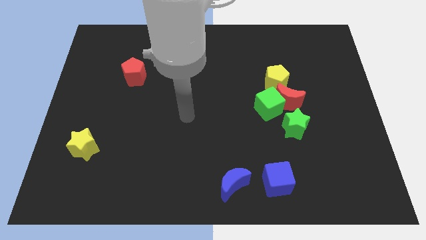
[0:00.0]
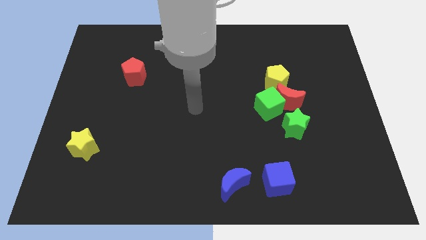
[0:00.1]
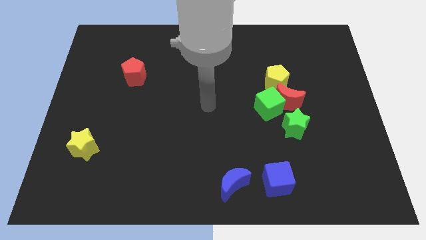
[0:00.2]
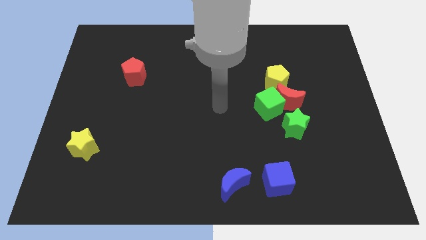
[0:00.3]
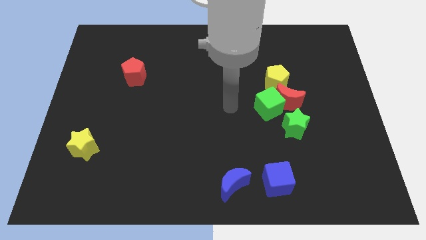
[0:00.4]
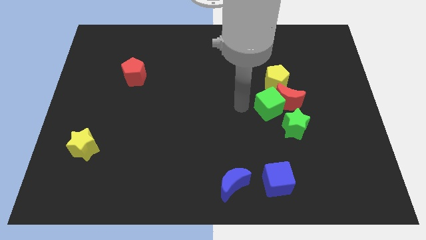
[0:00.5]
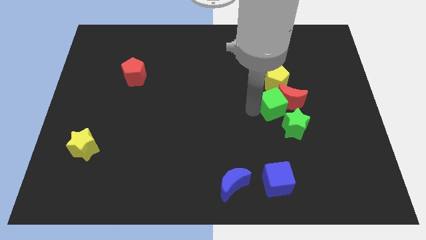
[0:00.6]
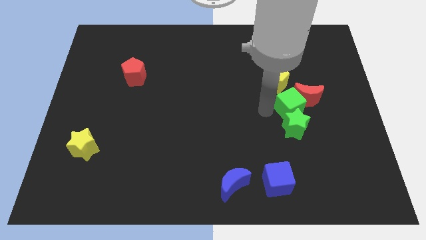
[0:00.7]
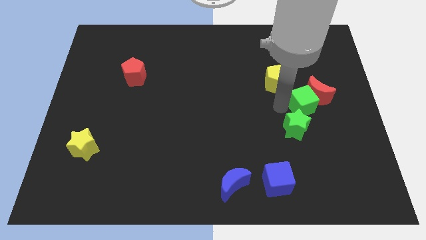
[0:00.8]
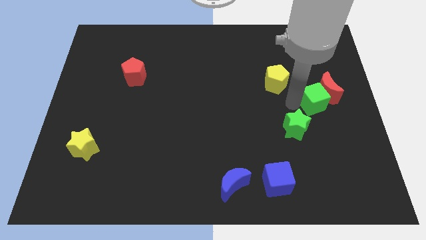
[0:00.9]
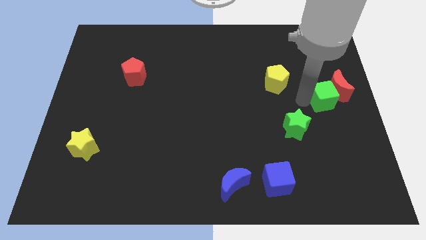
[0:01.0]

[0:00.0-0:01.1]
move the red moon away from the green cube, yellow pentagon, and green star

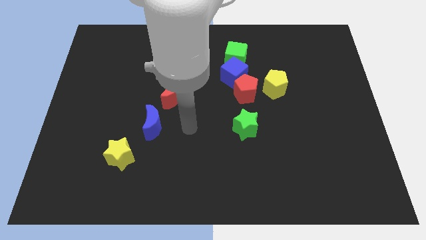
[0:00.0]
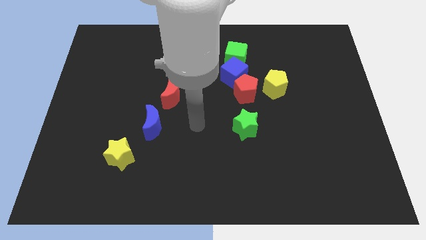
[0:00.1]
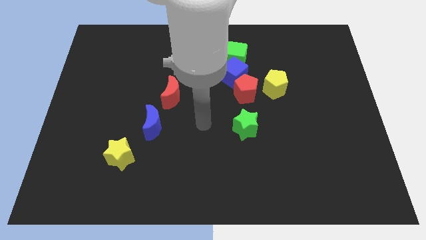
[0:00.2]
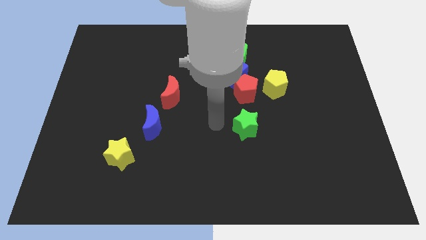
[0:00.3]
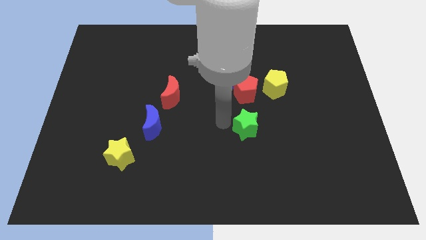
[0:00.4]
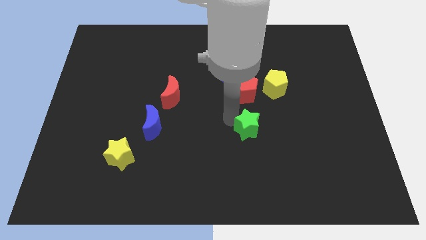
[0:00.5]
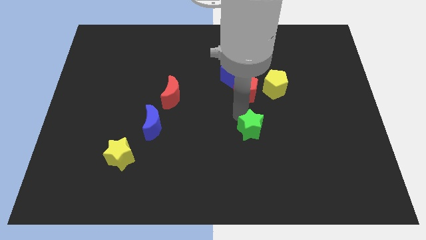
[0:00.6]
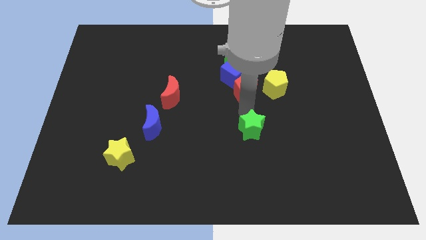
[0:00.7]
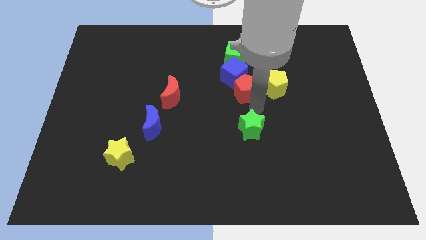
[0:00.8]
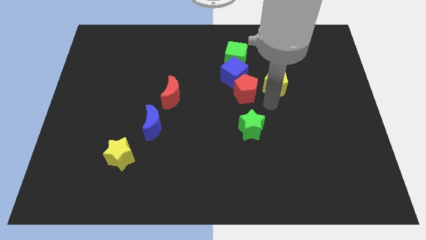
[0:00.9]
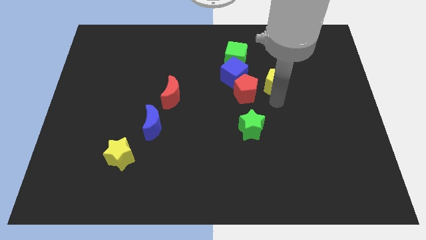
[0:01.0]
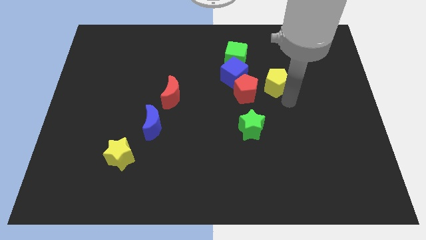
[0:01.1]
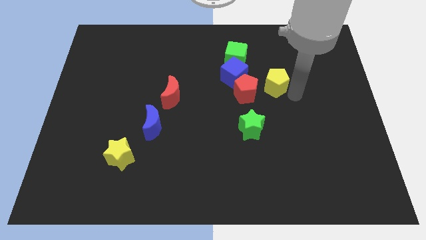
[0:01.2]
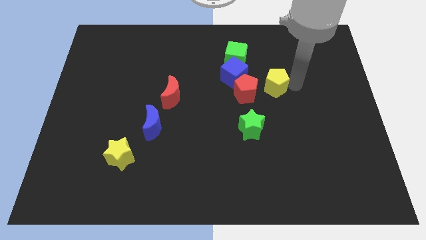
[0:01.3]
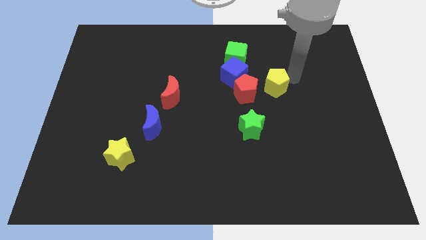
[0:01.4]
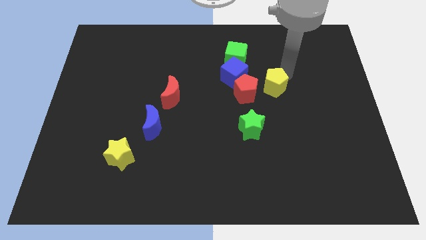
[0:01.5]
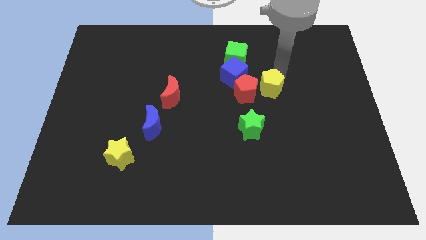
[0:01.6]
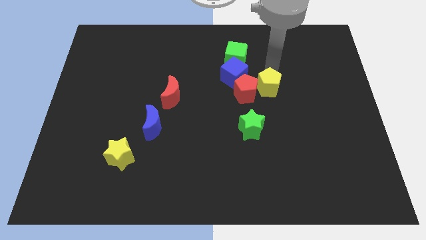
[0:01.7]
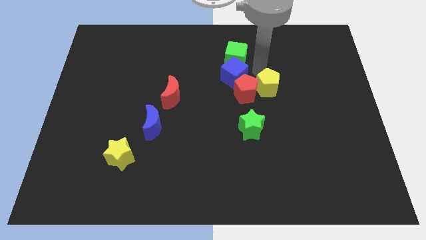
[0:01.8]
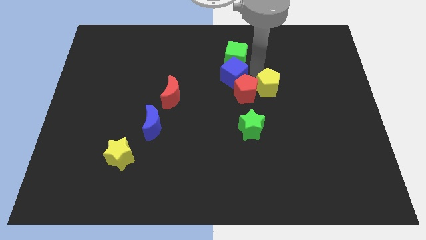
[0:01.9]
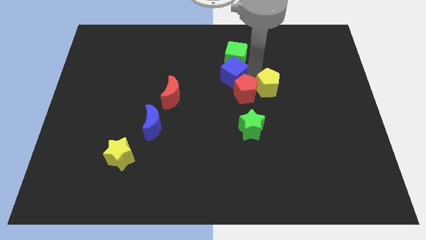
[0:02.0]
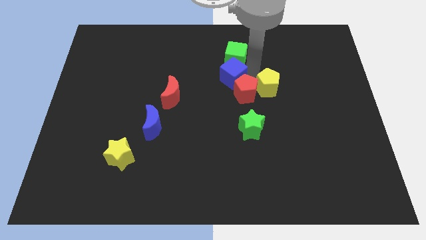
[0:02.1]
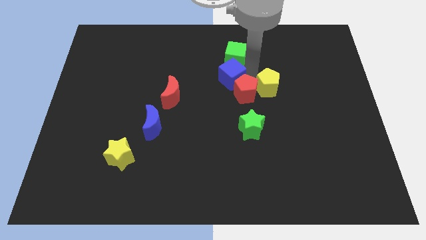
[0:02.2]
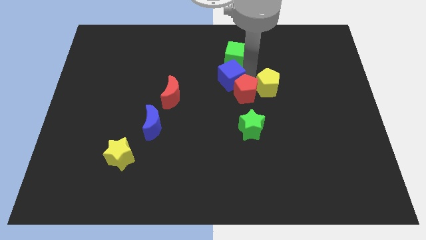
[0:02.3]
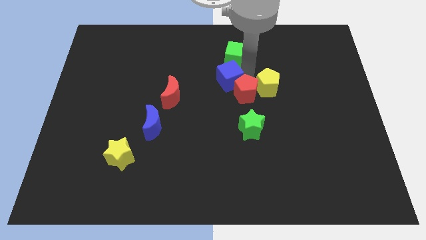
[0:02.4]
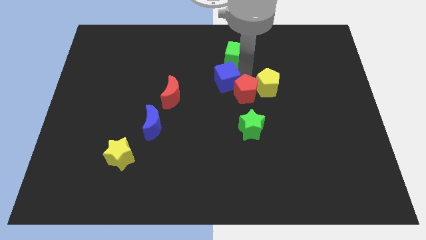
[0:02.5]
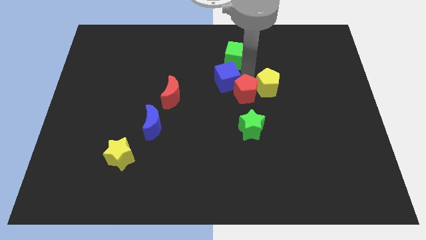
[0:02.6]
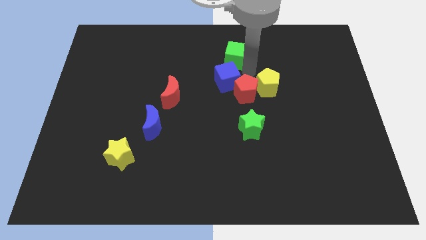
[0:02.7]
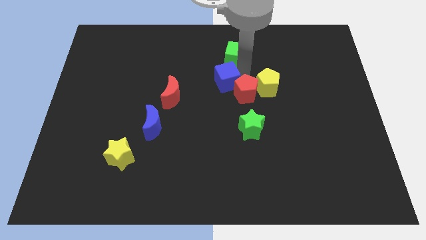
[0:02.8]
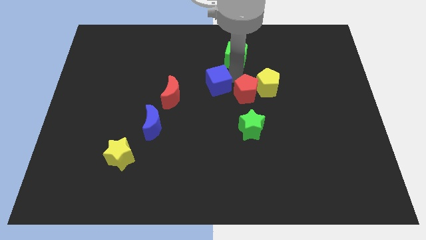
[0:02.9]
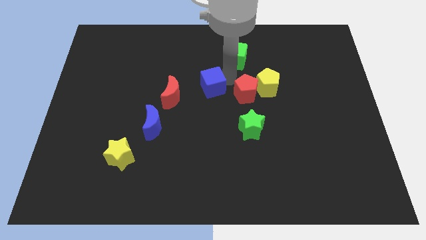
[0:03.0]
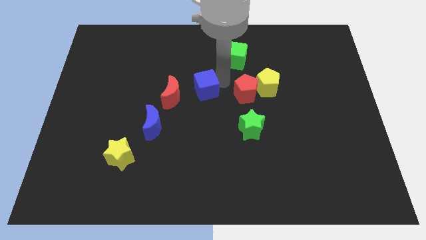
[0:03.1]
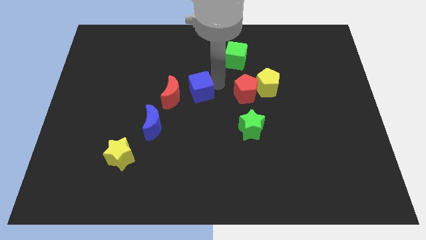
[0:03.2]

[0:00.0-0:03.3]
move the blue cube away from the red pentagon and green cube

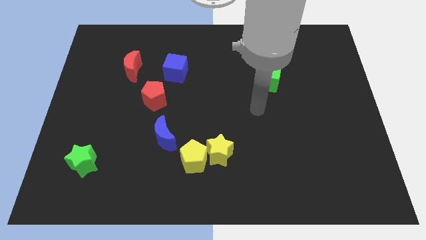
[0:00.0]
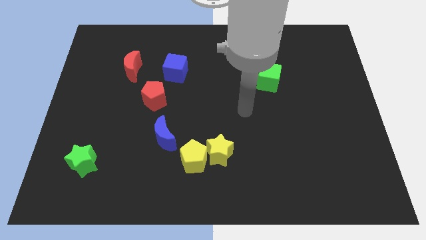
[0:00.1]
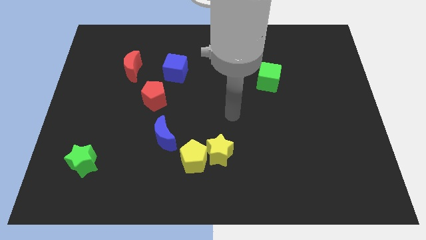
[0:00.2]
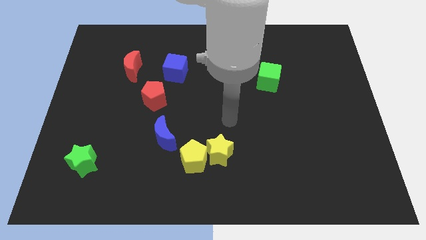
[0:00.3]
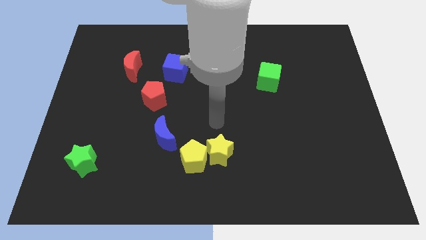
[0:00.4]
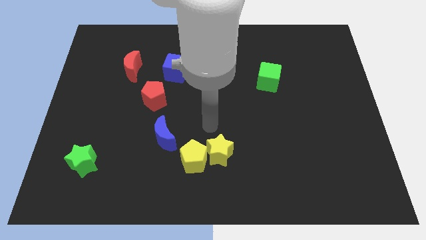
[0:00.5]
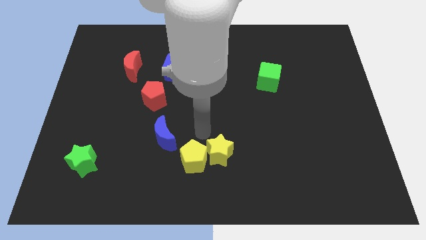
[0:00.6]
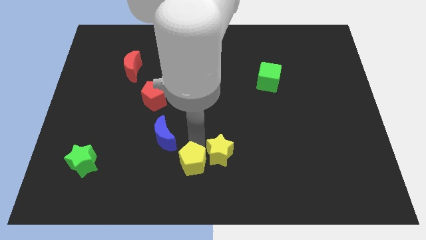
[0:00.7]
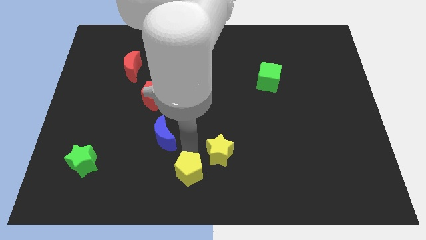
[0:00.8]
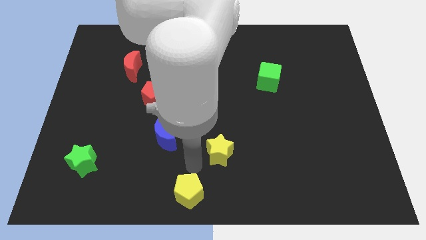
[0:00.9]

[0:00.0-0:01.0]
move the yellow star away from the yellow pentagon

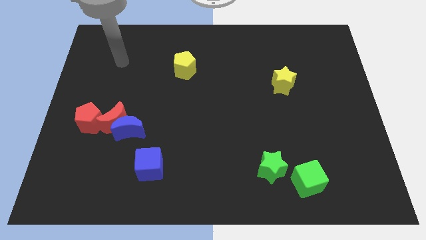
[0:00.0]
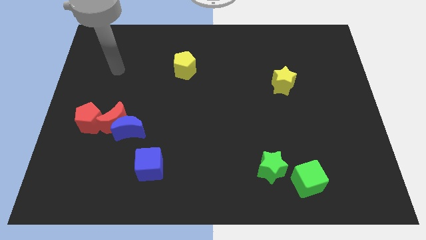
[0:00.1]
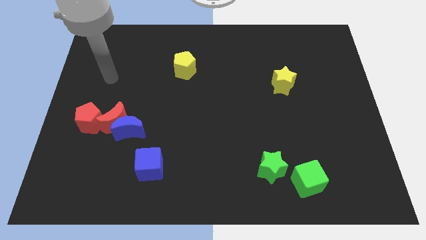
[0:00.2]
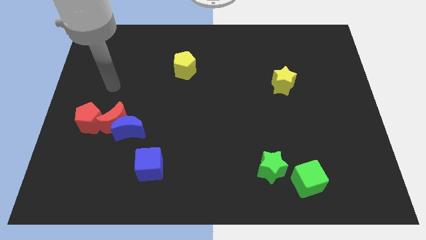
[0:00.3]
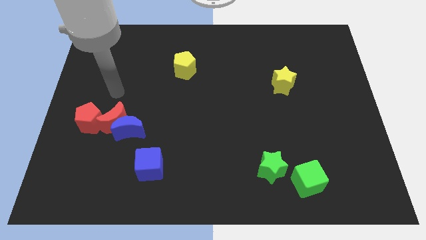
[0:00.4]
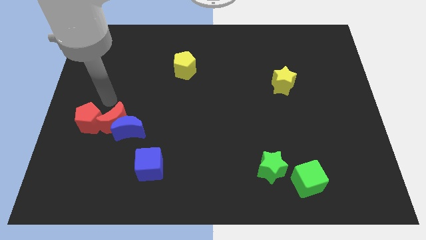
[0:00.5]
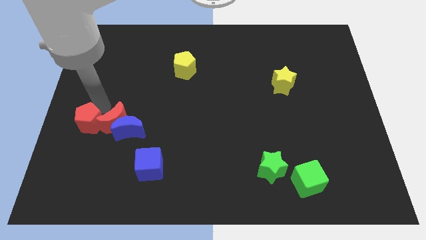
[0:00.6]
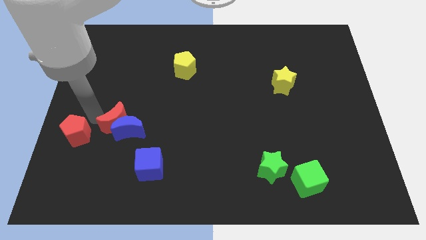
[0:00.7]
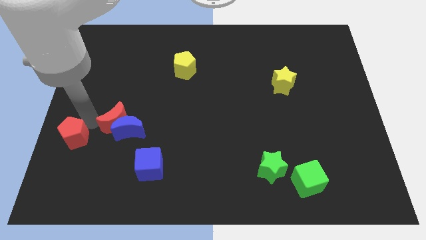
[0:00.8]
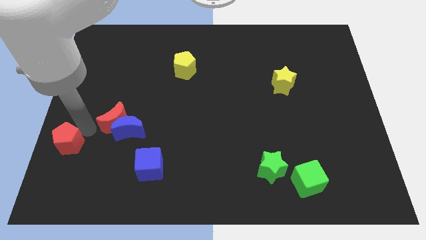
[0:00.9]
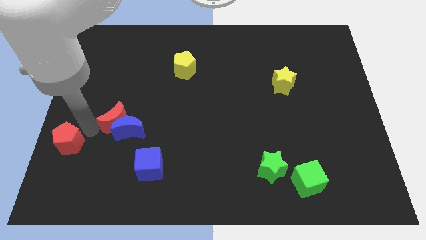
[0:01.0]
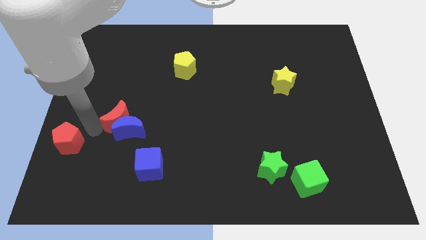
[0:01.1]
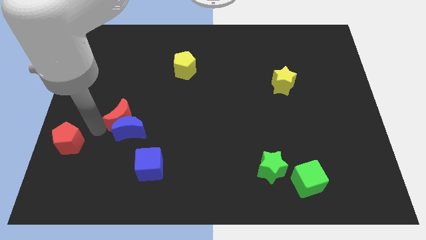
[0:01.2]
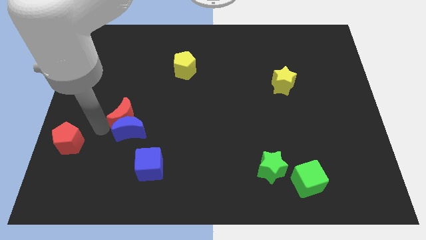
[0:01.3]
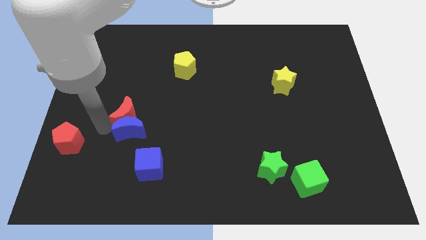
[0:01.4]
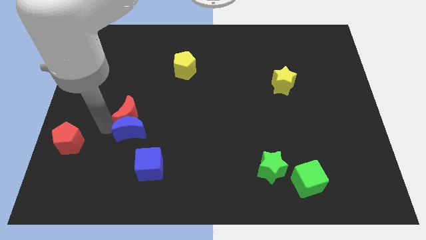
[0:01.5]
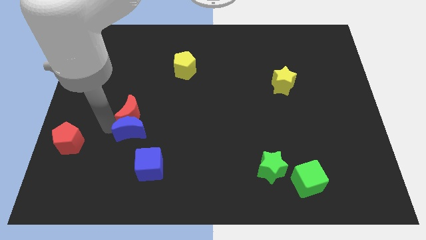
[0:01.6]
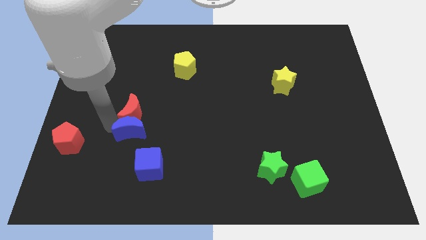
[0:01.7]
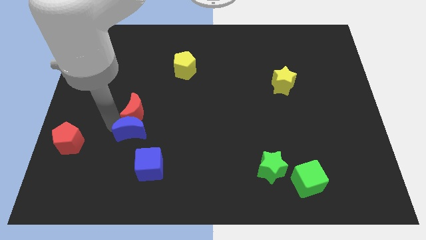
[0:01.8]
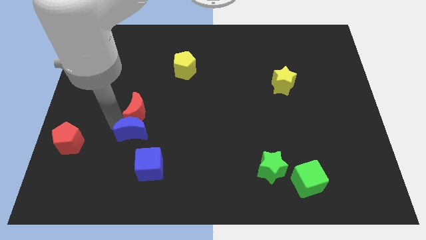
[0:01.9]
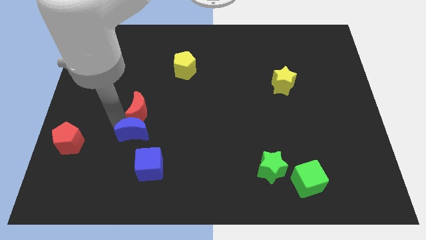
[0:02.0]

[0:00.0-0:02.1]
separate the red moon from the blue moon and red pentagon

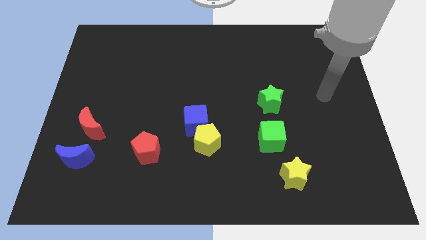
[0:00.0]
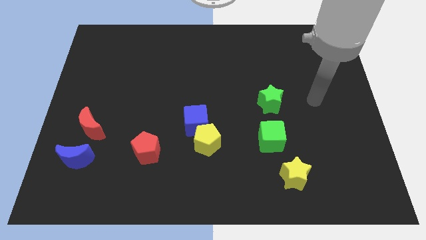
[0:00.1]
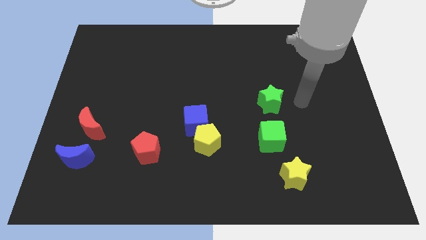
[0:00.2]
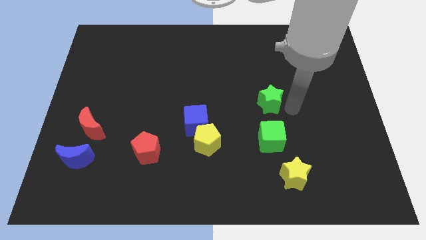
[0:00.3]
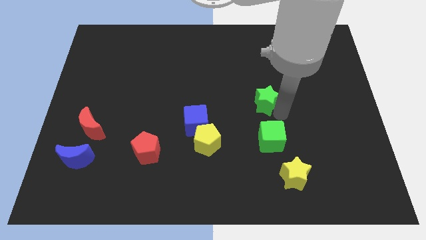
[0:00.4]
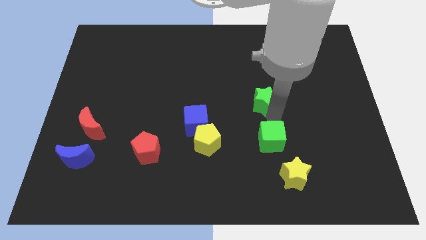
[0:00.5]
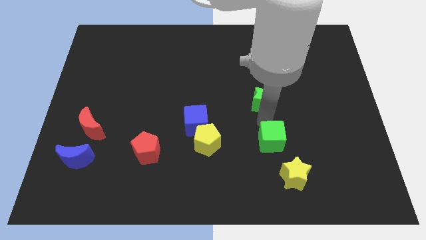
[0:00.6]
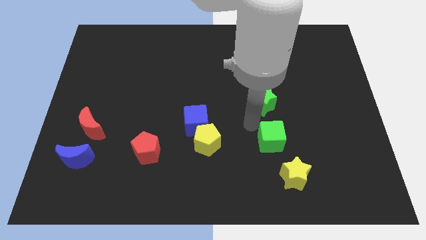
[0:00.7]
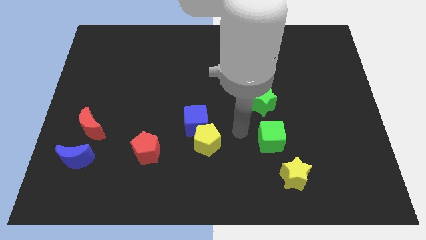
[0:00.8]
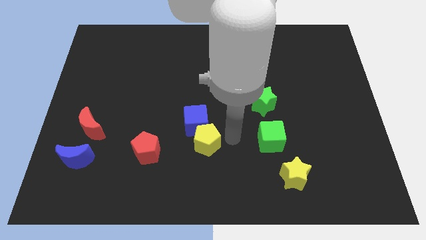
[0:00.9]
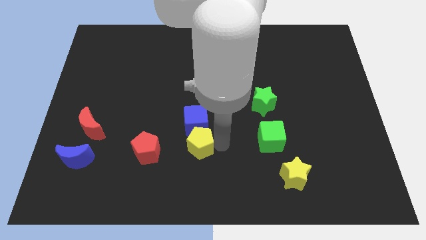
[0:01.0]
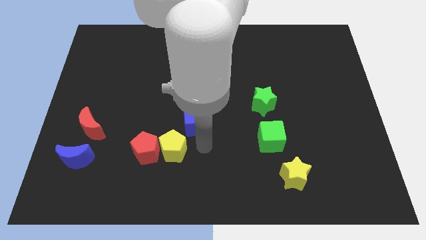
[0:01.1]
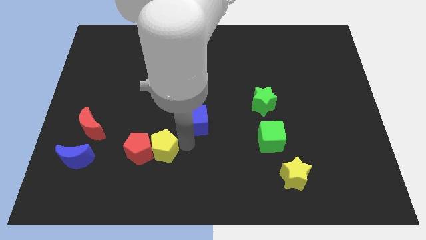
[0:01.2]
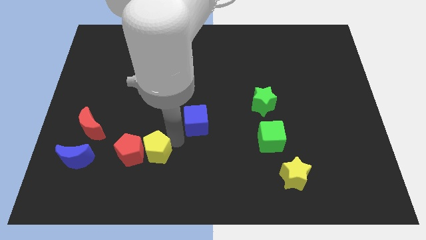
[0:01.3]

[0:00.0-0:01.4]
pull the blue cube apart from the yellow pentagon

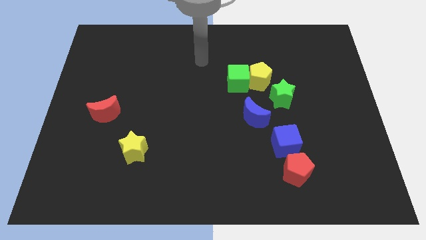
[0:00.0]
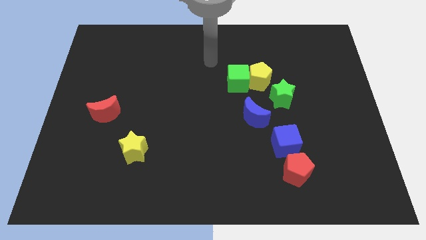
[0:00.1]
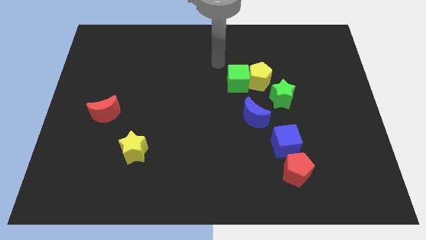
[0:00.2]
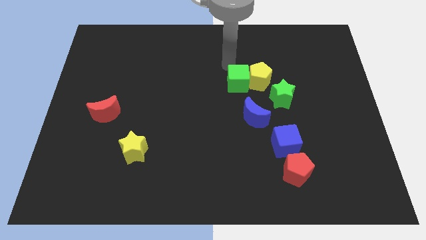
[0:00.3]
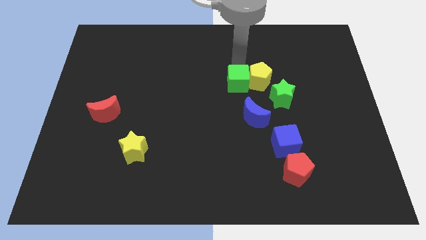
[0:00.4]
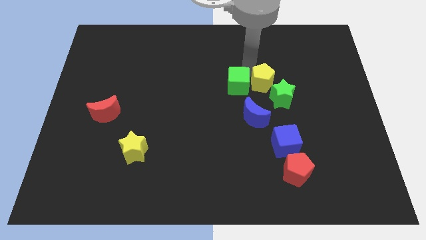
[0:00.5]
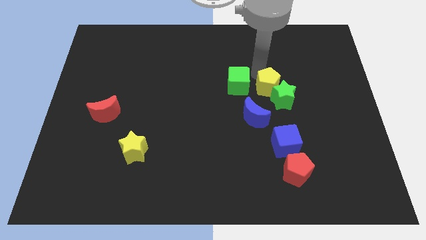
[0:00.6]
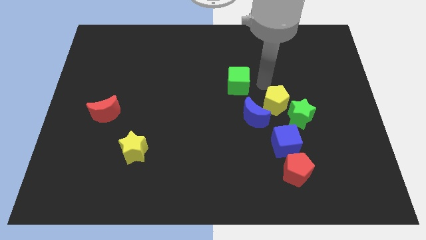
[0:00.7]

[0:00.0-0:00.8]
move the green cube away from the yellow pentagon
